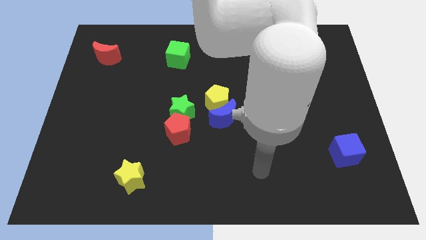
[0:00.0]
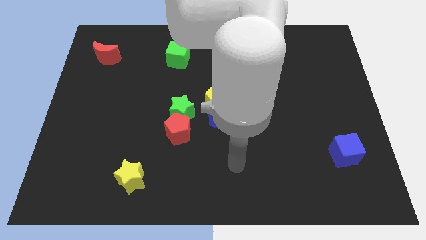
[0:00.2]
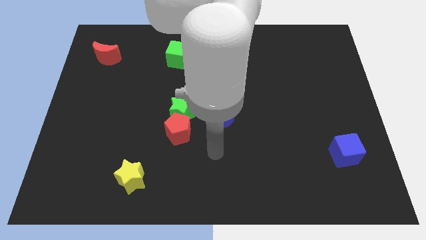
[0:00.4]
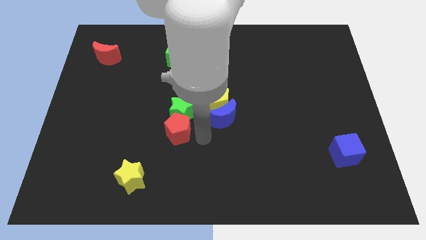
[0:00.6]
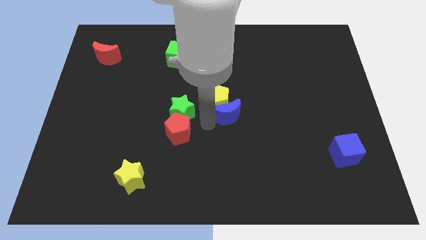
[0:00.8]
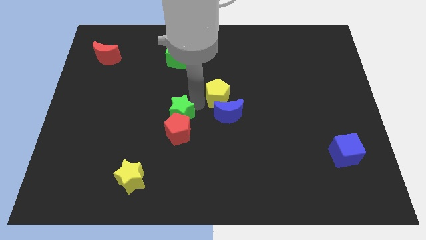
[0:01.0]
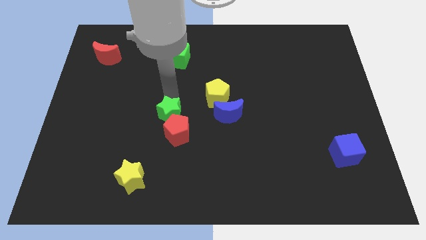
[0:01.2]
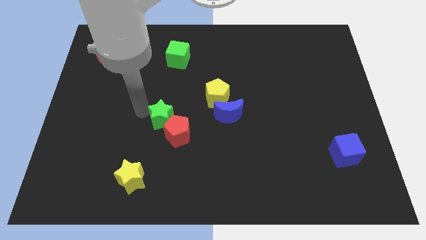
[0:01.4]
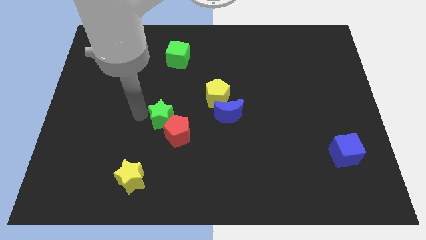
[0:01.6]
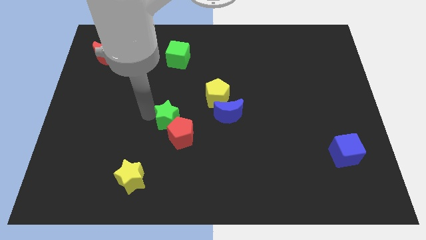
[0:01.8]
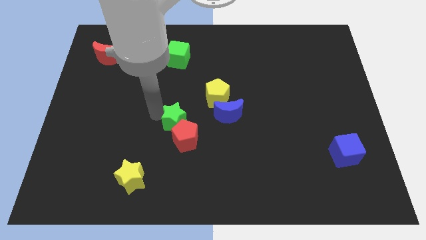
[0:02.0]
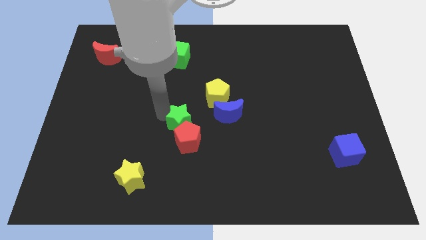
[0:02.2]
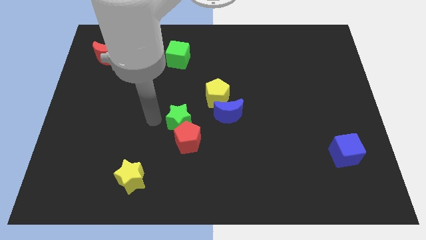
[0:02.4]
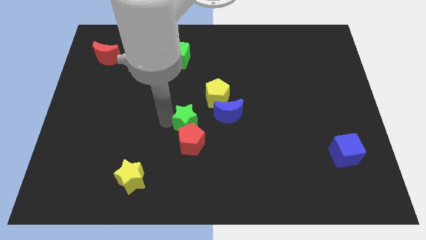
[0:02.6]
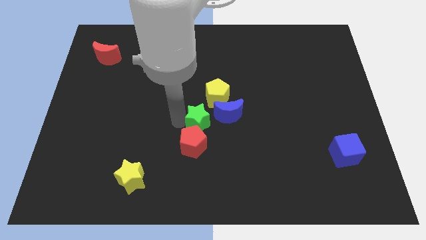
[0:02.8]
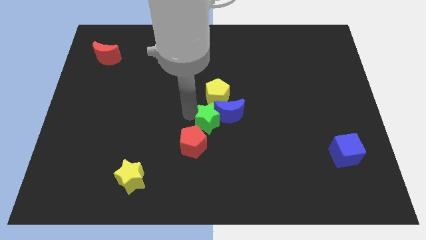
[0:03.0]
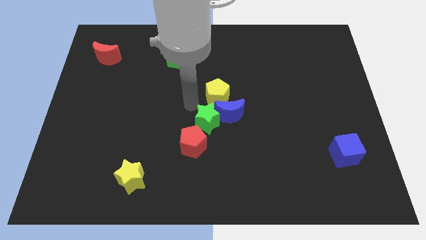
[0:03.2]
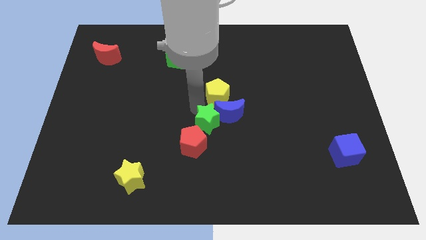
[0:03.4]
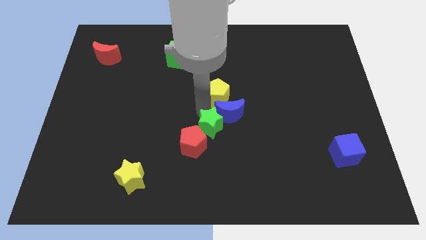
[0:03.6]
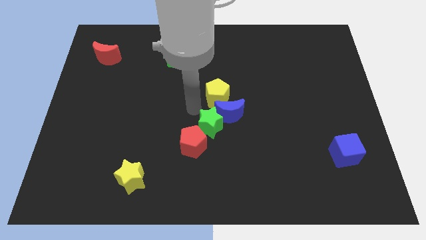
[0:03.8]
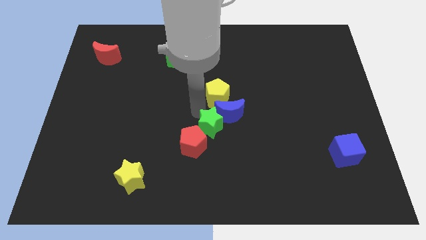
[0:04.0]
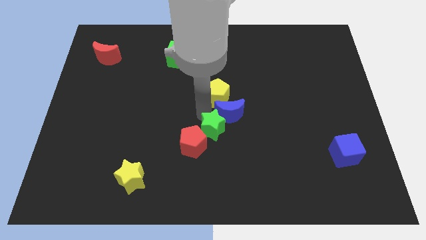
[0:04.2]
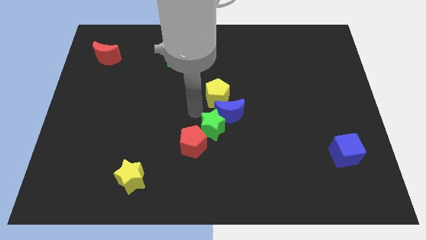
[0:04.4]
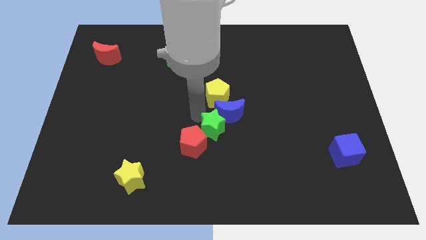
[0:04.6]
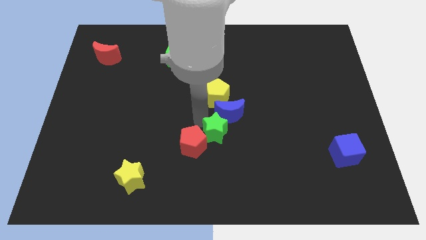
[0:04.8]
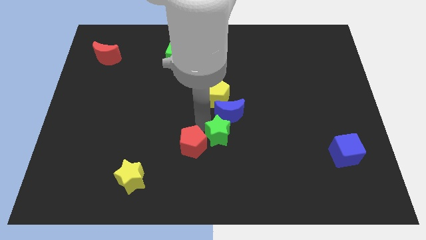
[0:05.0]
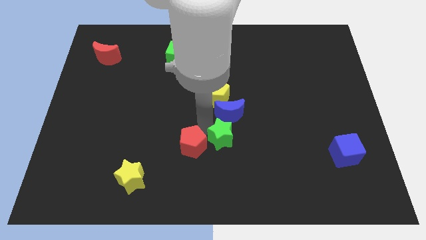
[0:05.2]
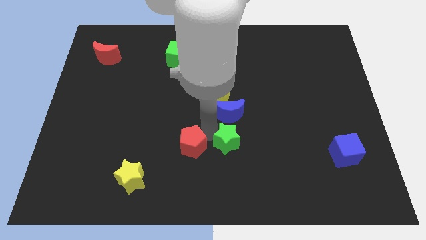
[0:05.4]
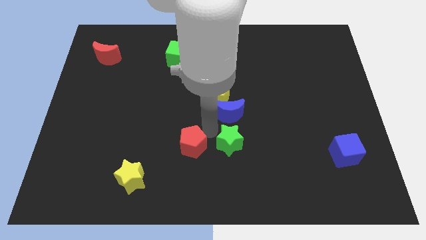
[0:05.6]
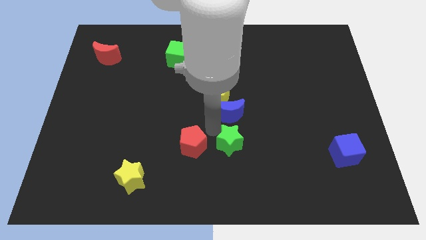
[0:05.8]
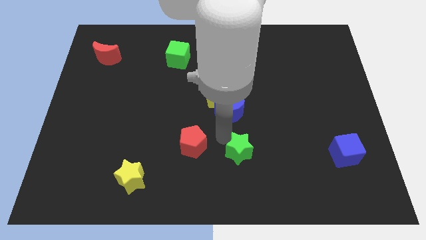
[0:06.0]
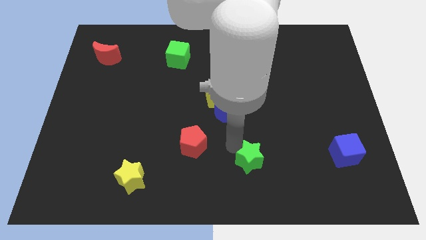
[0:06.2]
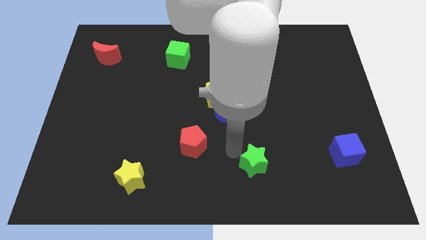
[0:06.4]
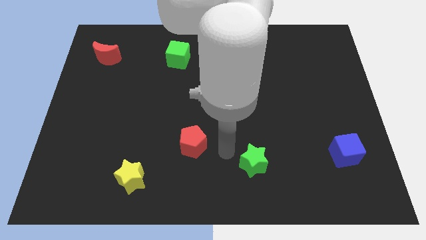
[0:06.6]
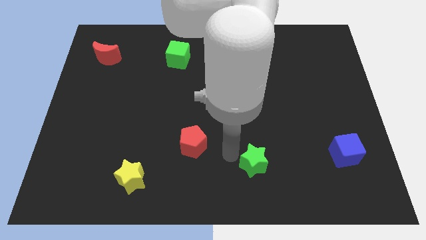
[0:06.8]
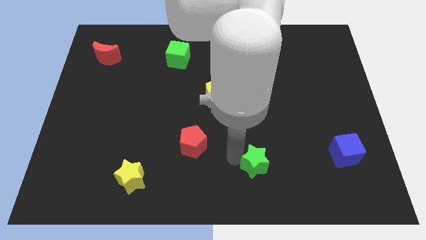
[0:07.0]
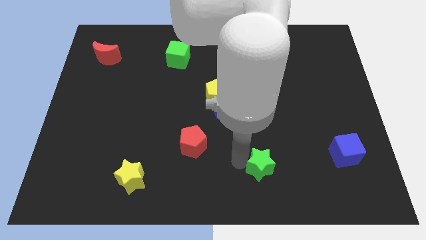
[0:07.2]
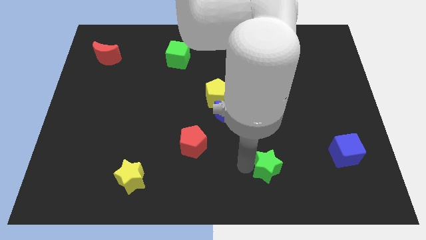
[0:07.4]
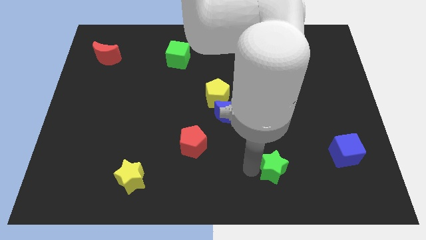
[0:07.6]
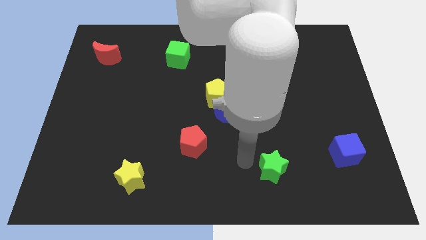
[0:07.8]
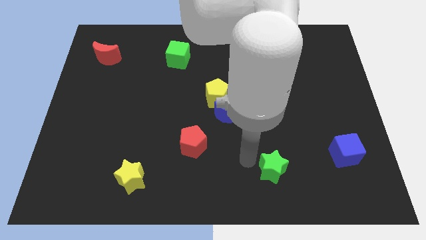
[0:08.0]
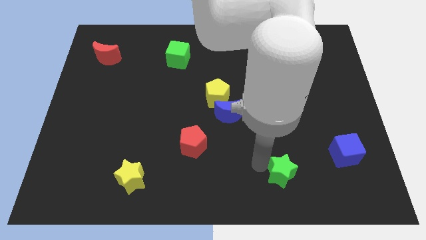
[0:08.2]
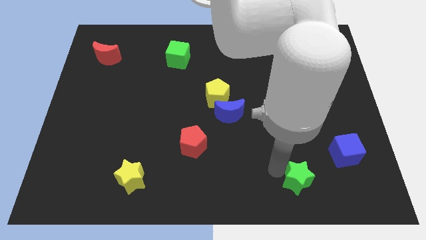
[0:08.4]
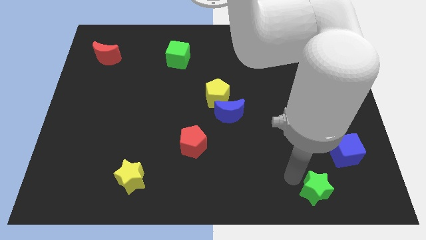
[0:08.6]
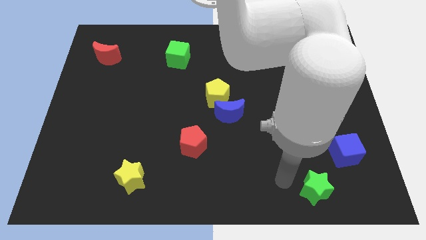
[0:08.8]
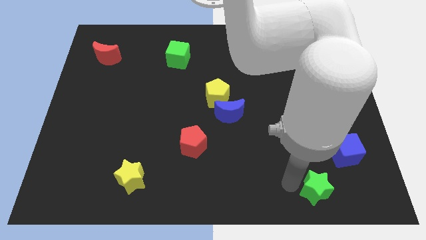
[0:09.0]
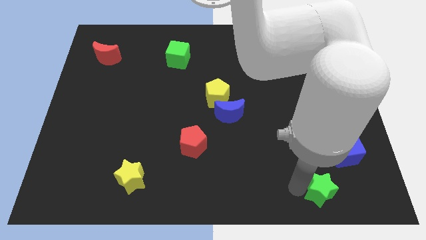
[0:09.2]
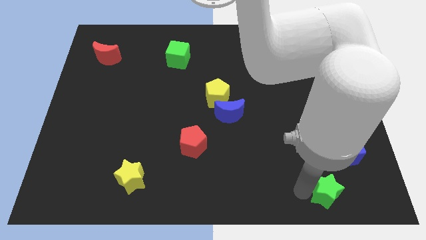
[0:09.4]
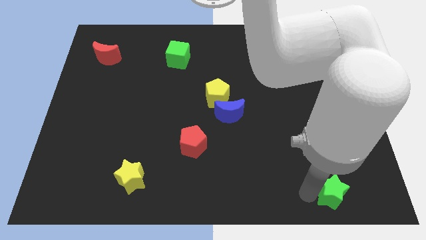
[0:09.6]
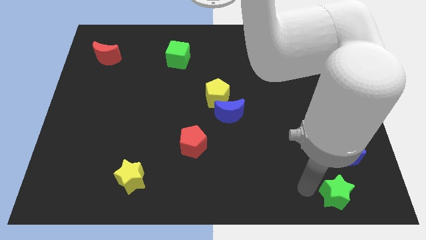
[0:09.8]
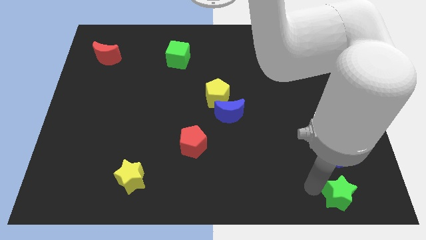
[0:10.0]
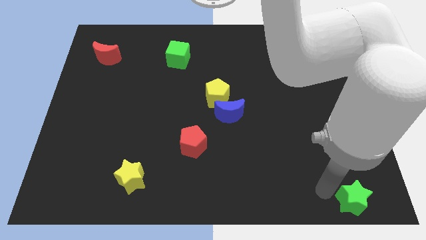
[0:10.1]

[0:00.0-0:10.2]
slide the green star to the lower right corner

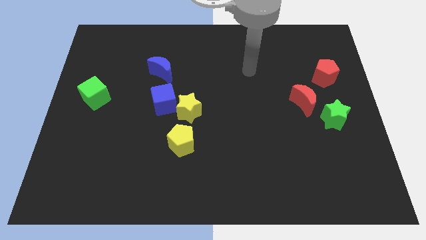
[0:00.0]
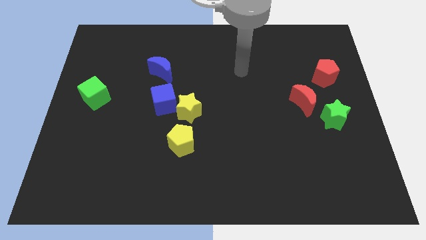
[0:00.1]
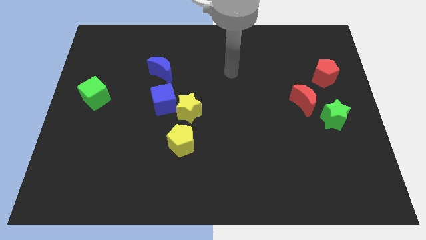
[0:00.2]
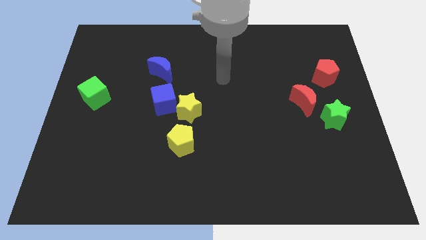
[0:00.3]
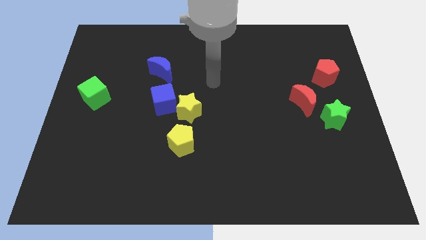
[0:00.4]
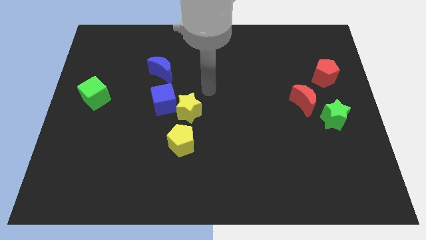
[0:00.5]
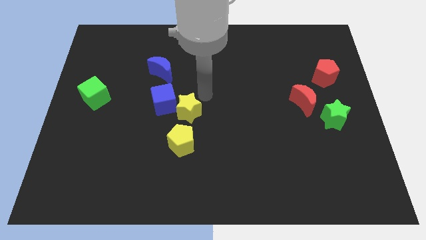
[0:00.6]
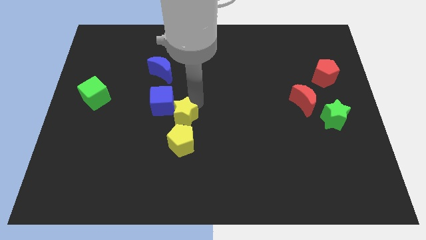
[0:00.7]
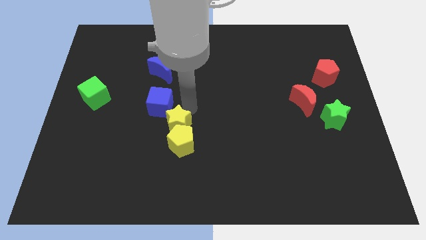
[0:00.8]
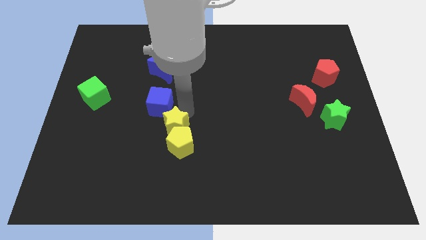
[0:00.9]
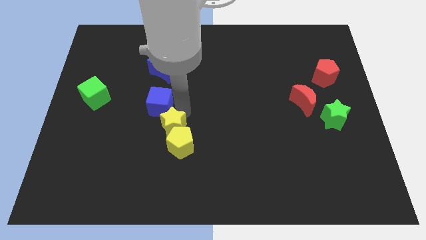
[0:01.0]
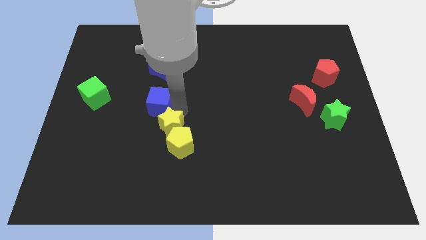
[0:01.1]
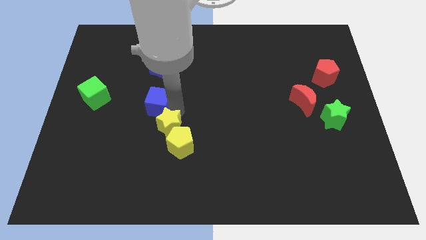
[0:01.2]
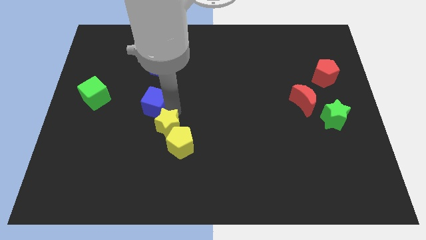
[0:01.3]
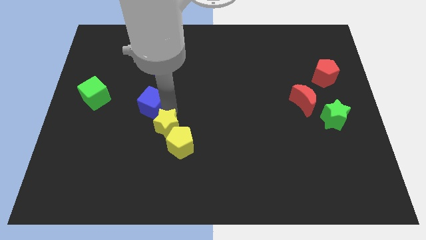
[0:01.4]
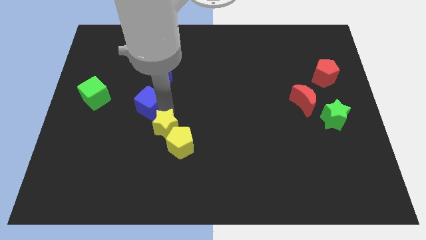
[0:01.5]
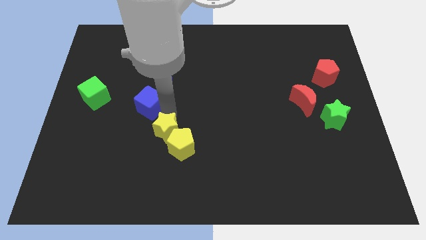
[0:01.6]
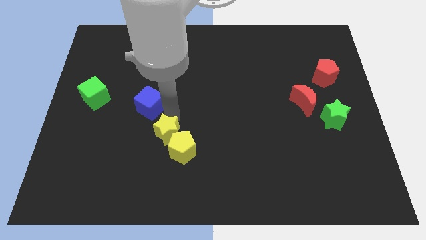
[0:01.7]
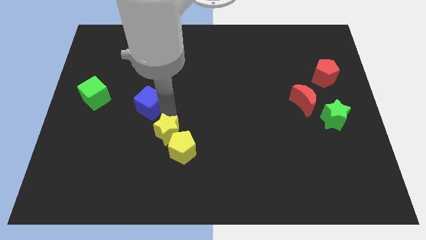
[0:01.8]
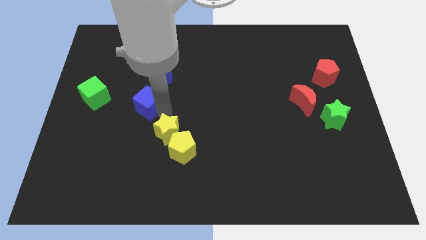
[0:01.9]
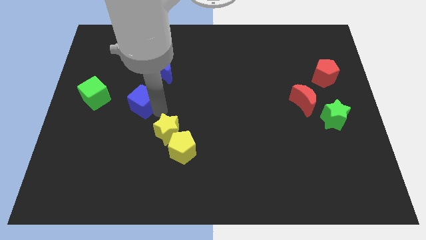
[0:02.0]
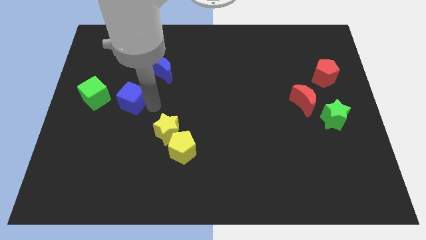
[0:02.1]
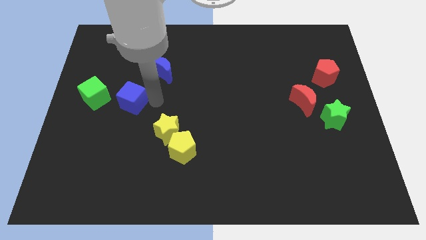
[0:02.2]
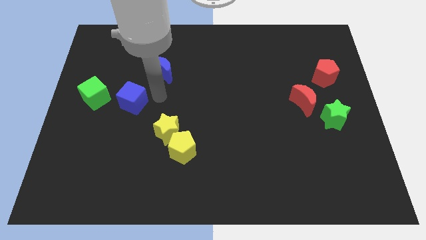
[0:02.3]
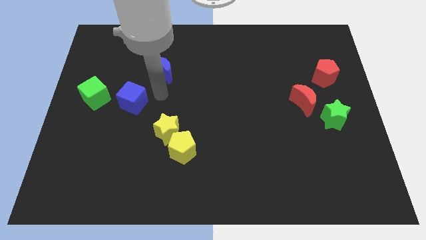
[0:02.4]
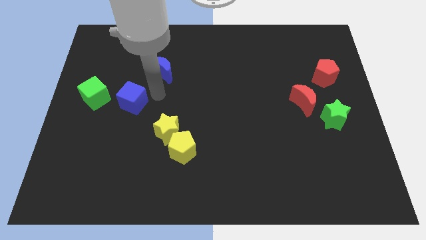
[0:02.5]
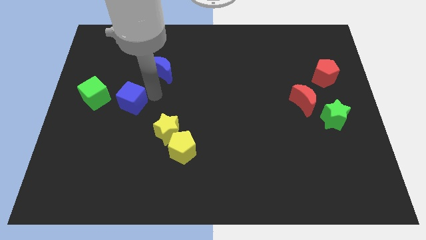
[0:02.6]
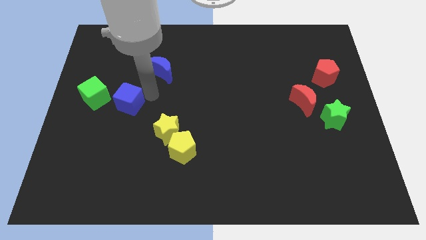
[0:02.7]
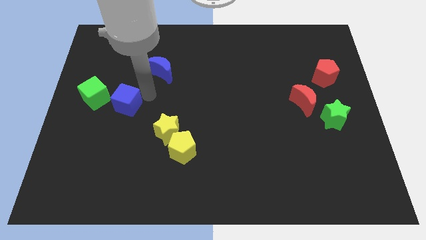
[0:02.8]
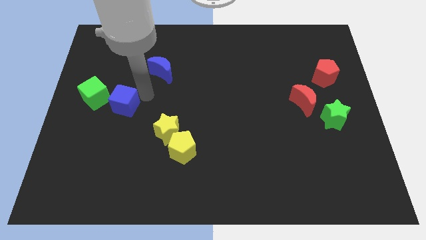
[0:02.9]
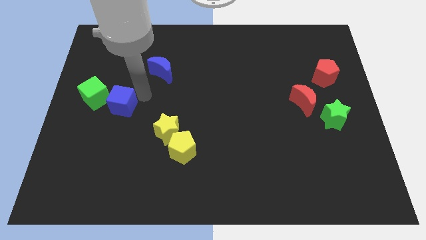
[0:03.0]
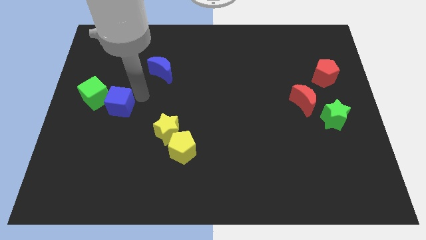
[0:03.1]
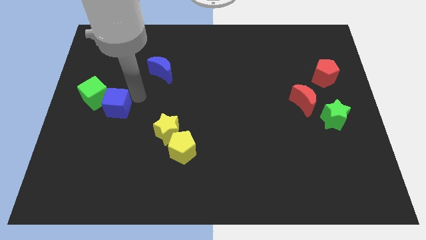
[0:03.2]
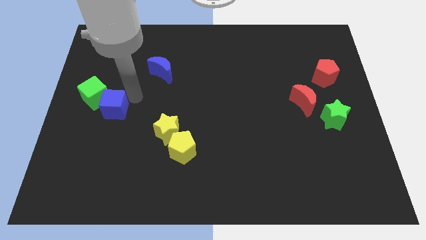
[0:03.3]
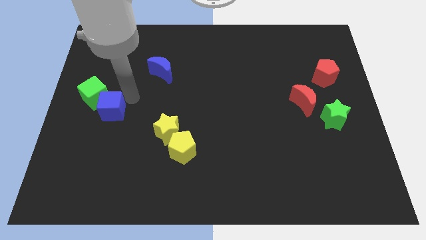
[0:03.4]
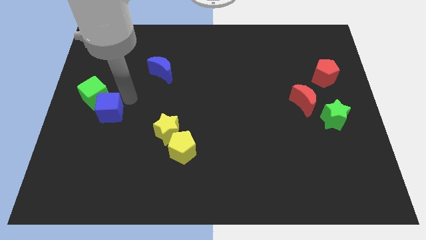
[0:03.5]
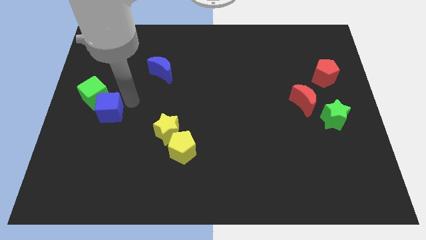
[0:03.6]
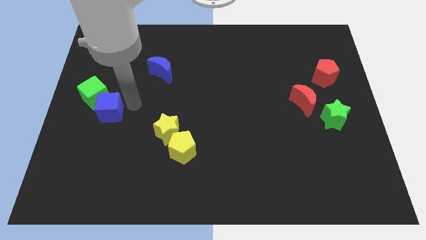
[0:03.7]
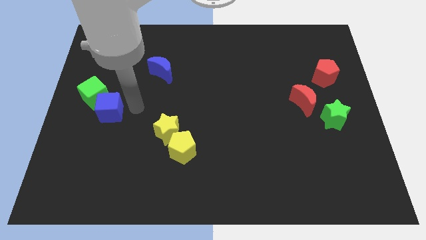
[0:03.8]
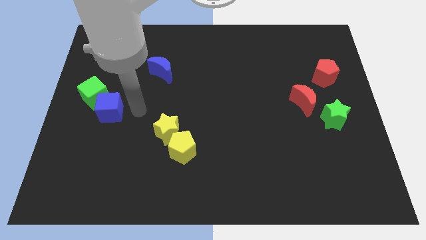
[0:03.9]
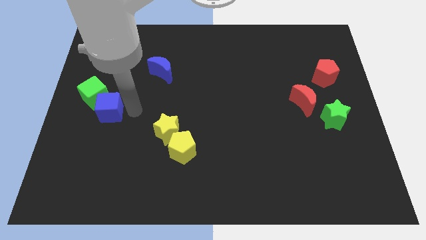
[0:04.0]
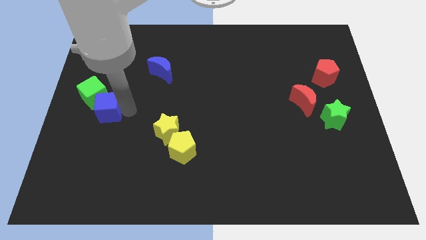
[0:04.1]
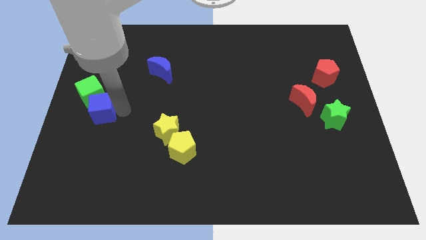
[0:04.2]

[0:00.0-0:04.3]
move the blue cube to the left side of the board
